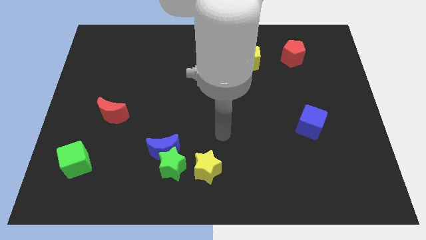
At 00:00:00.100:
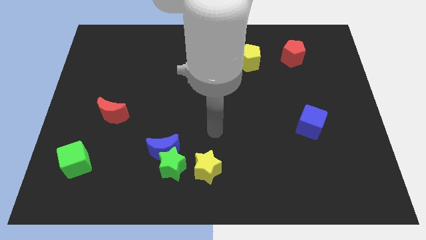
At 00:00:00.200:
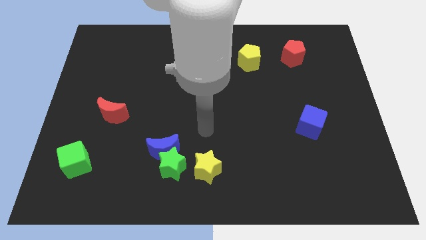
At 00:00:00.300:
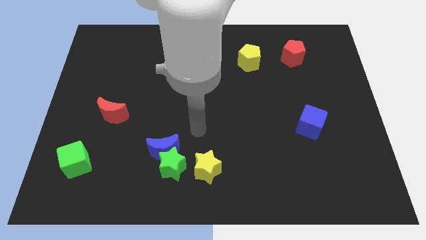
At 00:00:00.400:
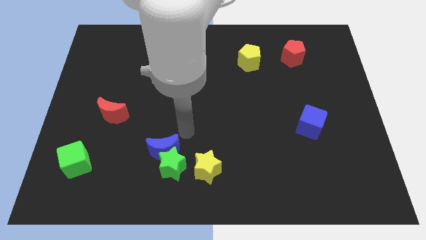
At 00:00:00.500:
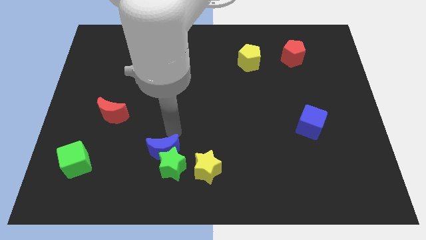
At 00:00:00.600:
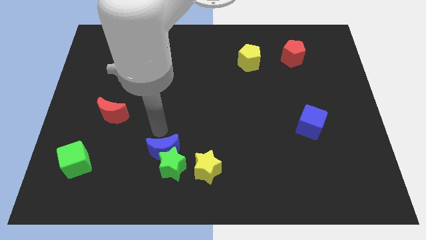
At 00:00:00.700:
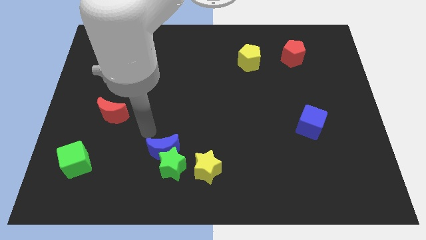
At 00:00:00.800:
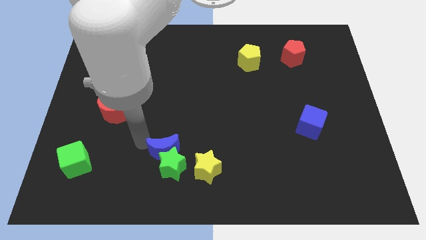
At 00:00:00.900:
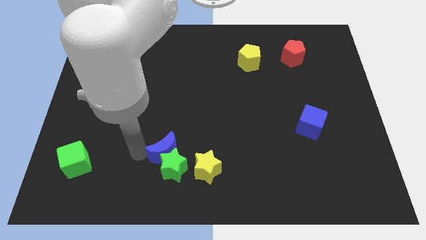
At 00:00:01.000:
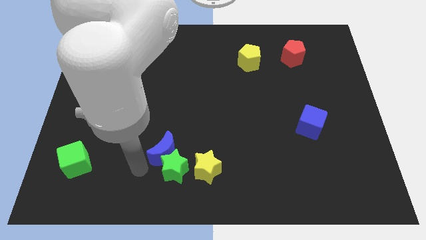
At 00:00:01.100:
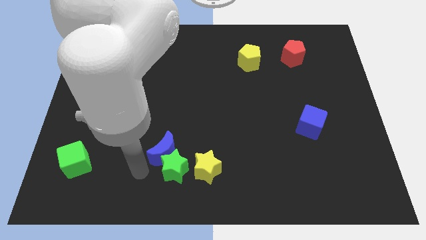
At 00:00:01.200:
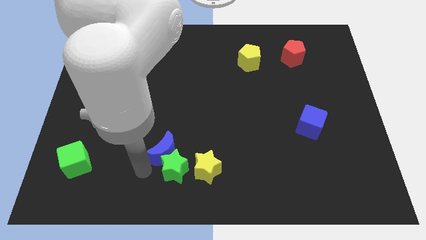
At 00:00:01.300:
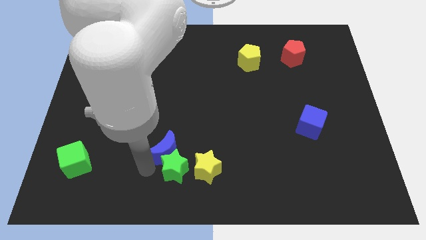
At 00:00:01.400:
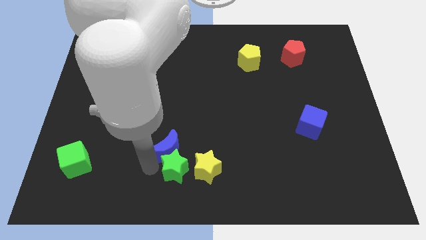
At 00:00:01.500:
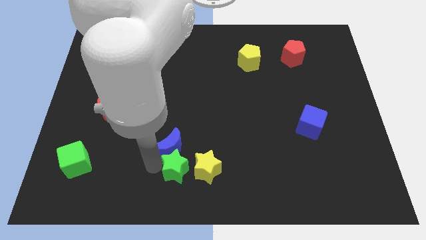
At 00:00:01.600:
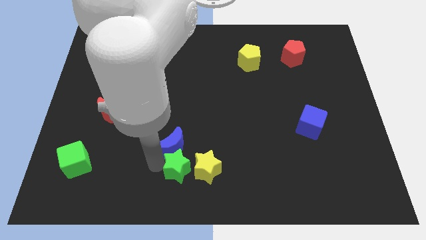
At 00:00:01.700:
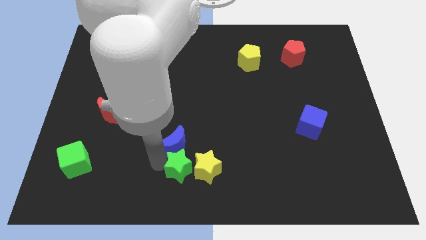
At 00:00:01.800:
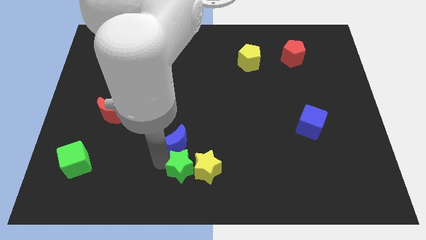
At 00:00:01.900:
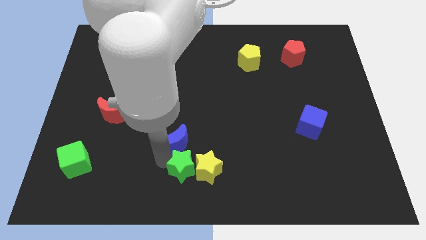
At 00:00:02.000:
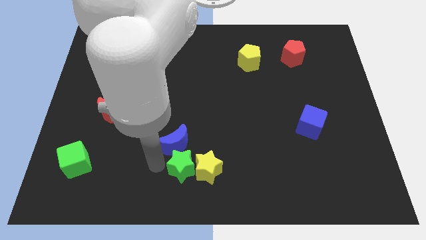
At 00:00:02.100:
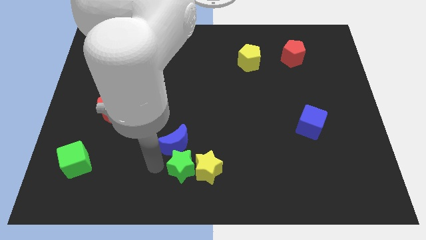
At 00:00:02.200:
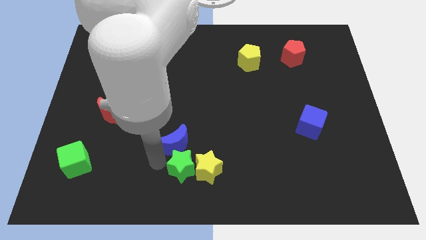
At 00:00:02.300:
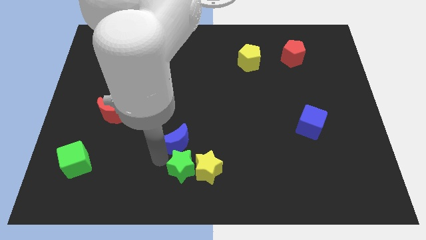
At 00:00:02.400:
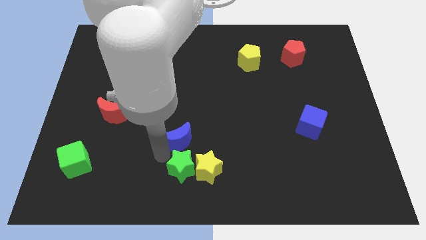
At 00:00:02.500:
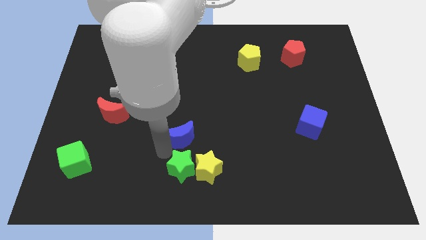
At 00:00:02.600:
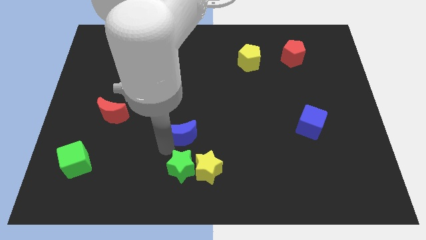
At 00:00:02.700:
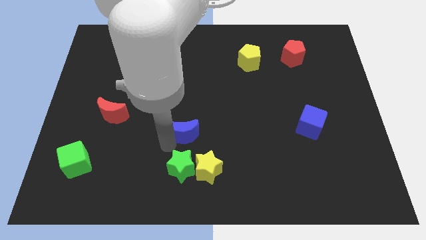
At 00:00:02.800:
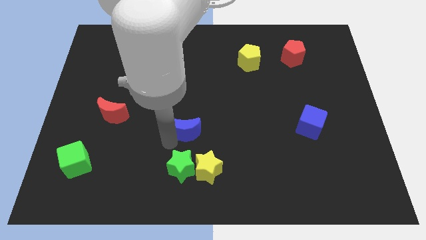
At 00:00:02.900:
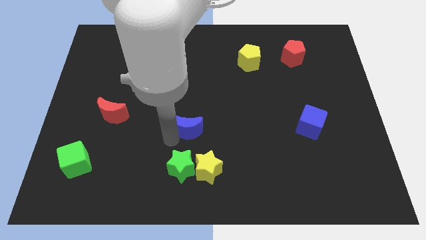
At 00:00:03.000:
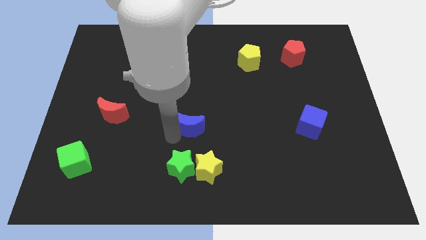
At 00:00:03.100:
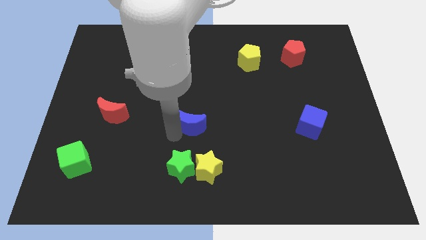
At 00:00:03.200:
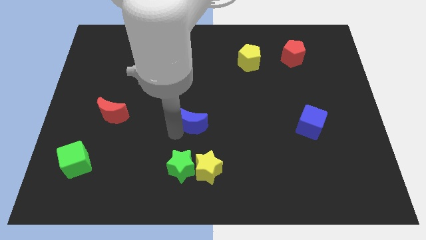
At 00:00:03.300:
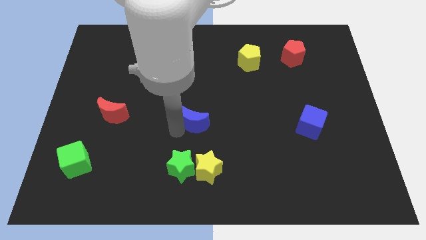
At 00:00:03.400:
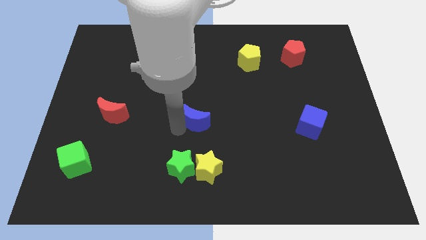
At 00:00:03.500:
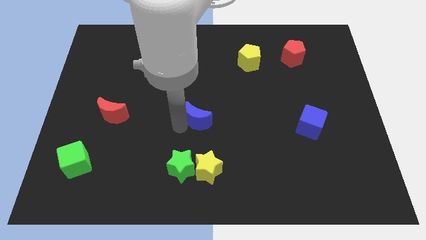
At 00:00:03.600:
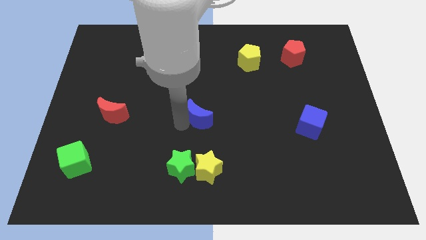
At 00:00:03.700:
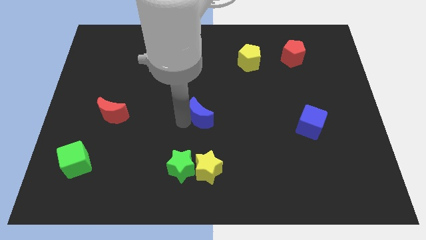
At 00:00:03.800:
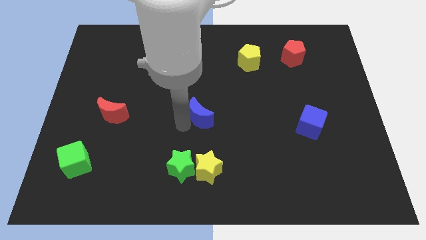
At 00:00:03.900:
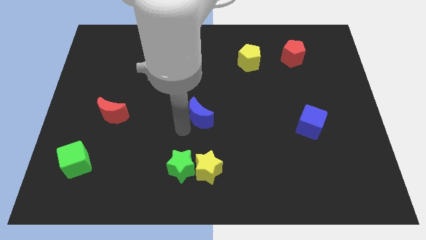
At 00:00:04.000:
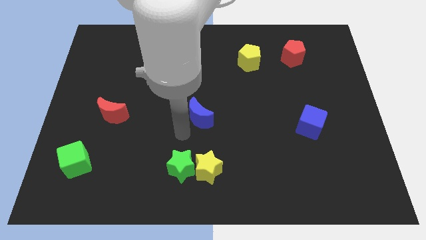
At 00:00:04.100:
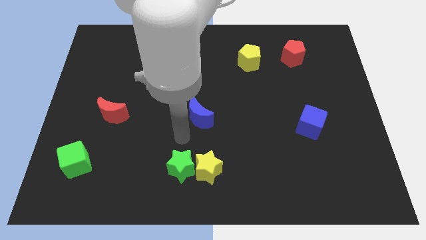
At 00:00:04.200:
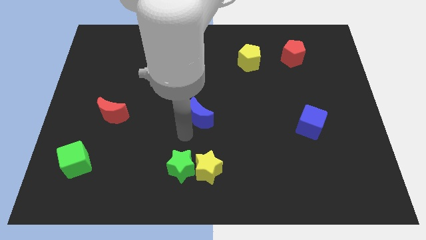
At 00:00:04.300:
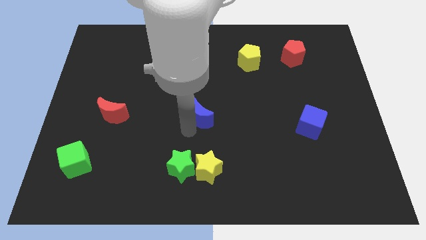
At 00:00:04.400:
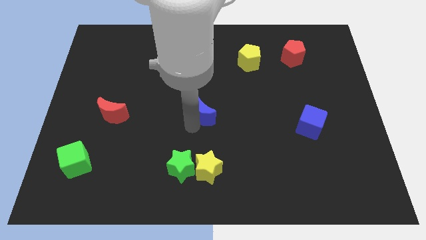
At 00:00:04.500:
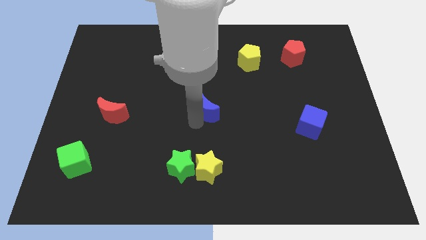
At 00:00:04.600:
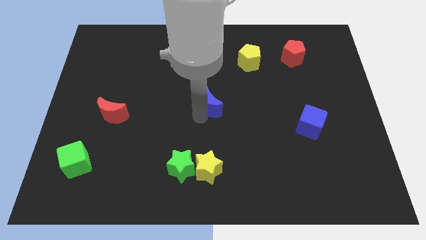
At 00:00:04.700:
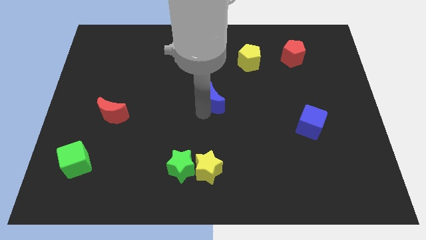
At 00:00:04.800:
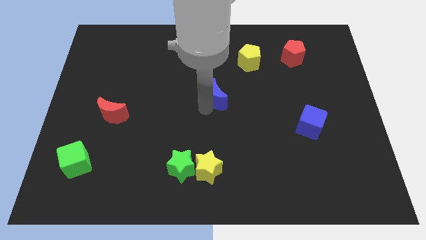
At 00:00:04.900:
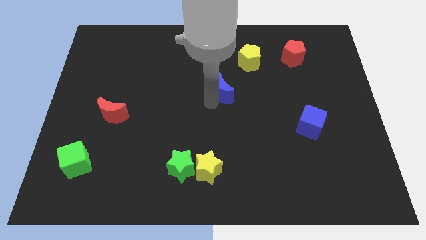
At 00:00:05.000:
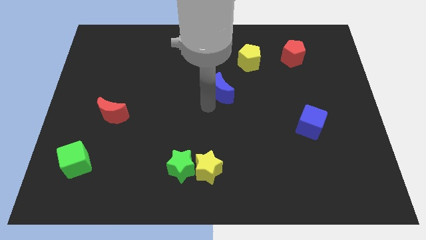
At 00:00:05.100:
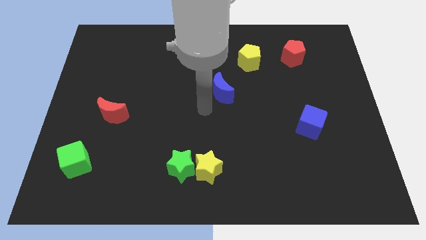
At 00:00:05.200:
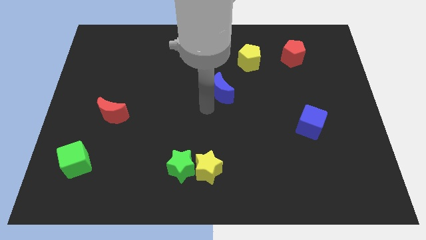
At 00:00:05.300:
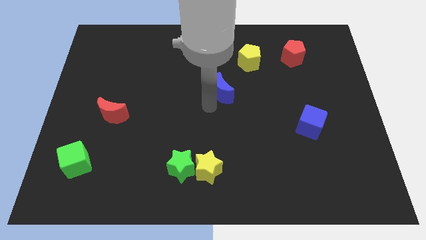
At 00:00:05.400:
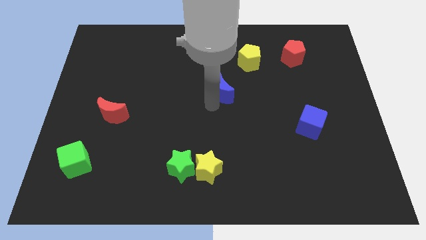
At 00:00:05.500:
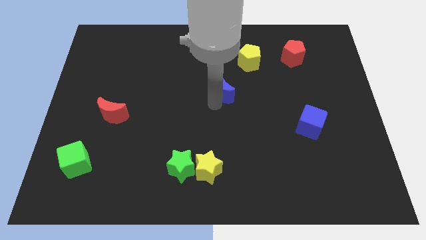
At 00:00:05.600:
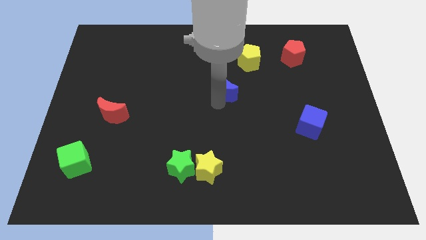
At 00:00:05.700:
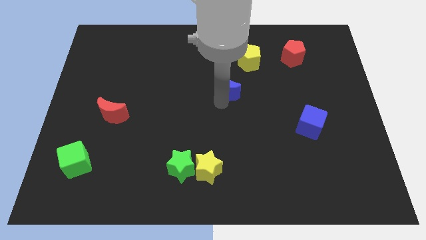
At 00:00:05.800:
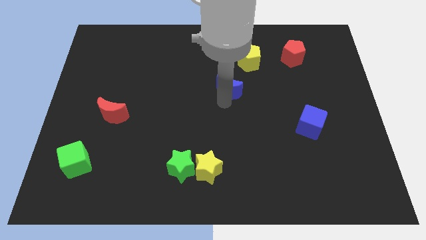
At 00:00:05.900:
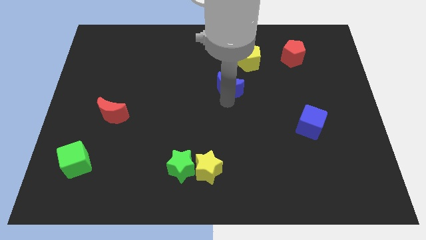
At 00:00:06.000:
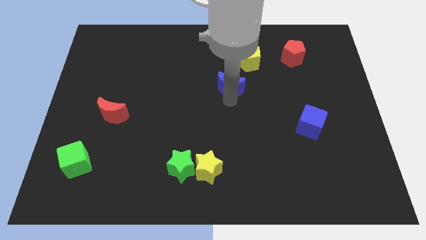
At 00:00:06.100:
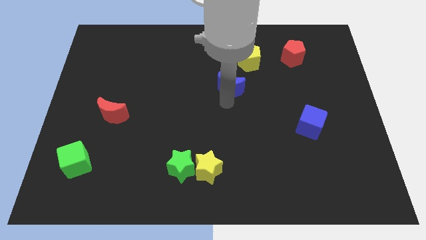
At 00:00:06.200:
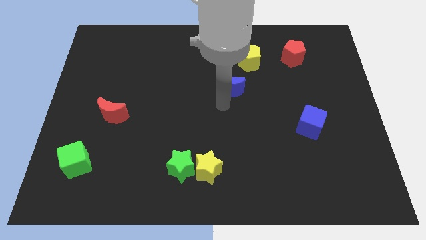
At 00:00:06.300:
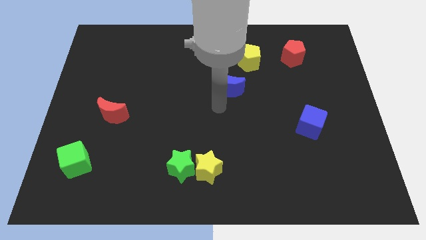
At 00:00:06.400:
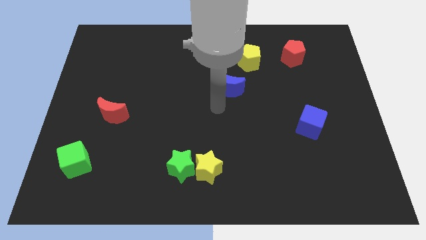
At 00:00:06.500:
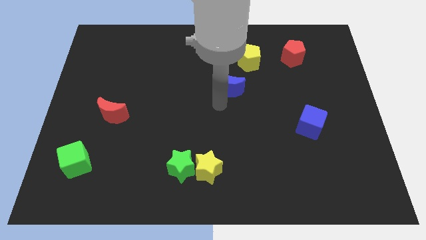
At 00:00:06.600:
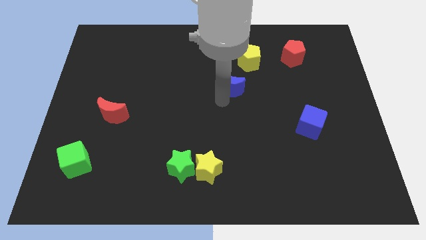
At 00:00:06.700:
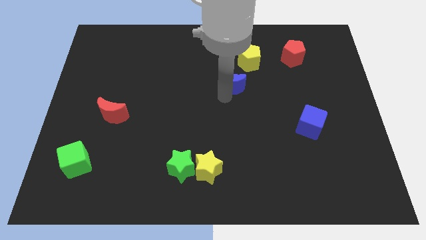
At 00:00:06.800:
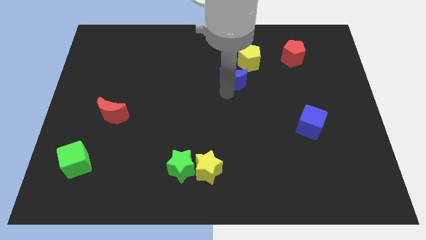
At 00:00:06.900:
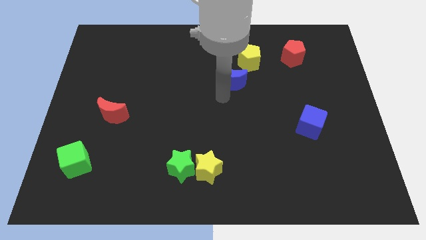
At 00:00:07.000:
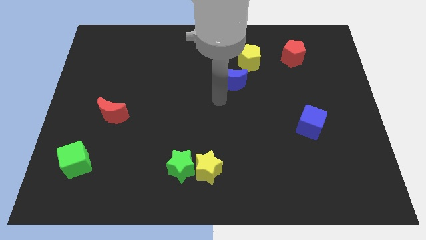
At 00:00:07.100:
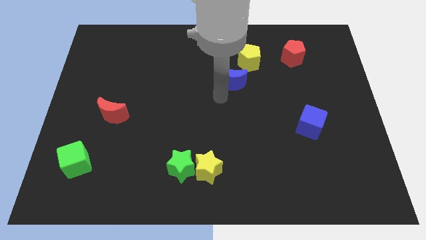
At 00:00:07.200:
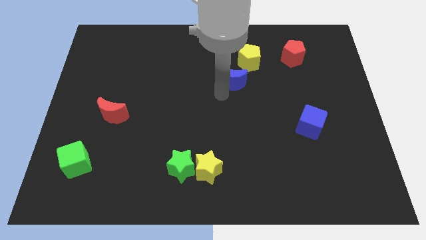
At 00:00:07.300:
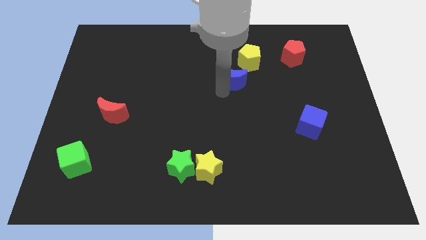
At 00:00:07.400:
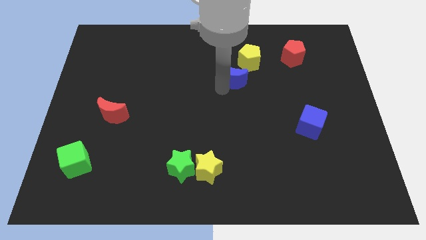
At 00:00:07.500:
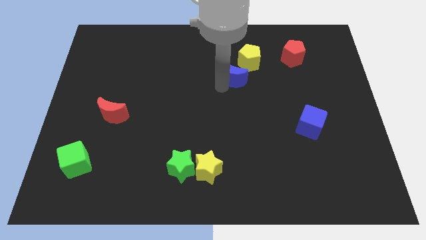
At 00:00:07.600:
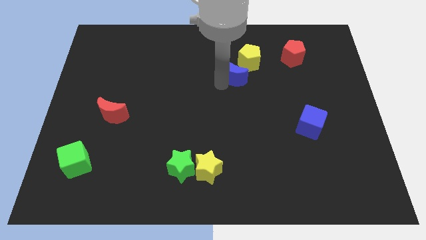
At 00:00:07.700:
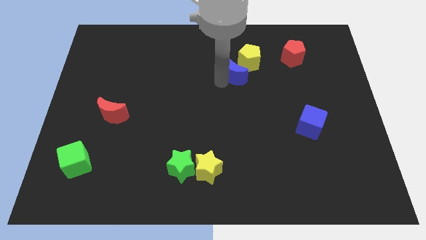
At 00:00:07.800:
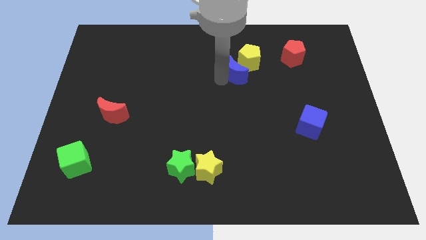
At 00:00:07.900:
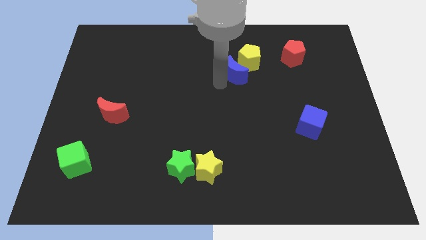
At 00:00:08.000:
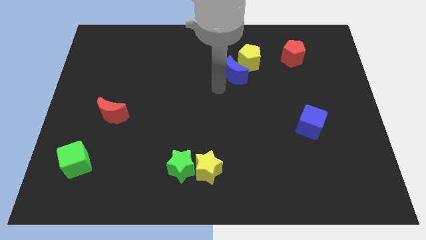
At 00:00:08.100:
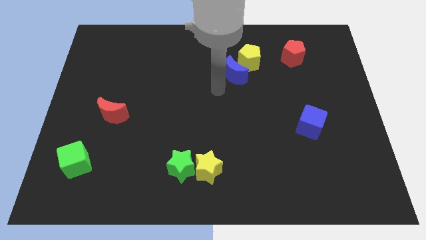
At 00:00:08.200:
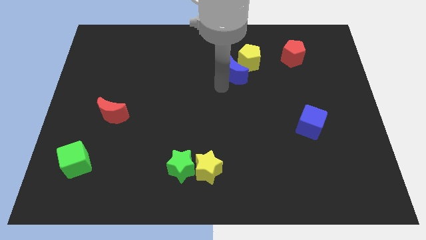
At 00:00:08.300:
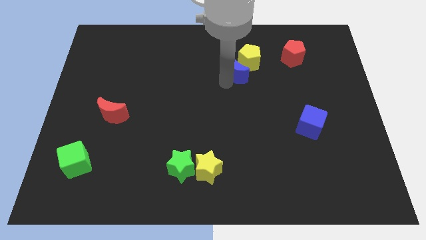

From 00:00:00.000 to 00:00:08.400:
push the blue moon next to the yellow pentagon
